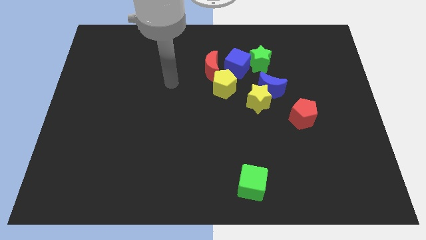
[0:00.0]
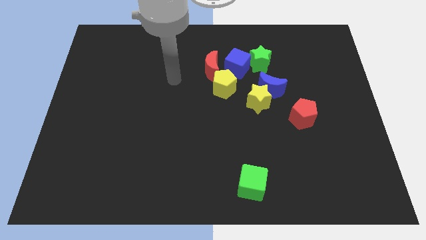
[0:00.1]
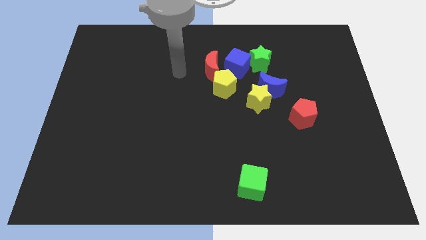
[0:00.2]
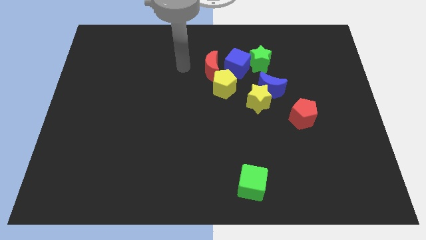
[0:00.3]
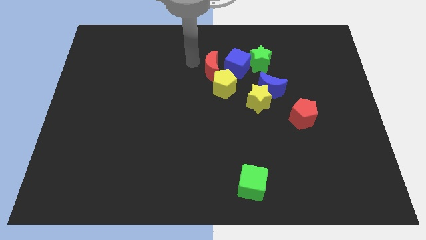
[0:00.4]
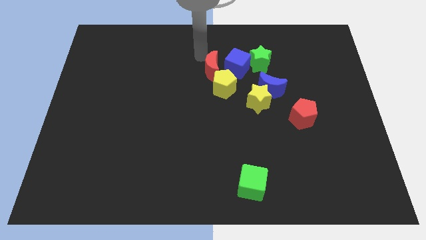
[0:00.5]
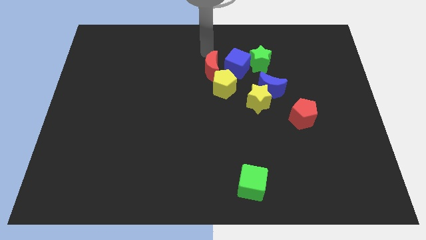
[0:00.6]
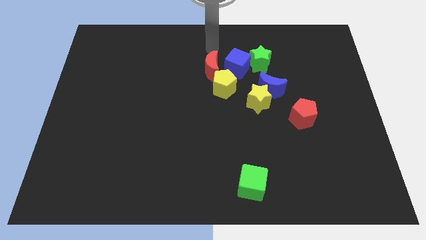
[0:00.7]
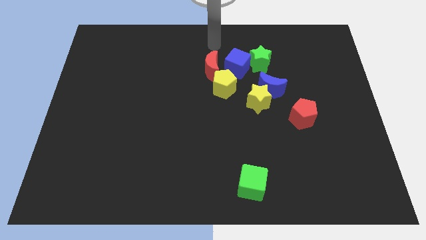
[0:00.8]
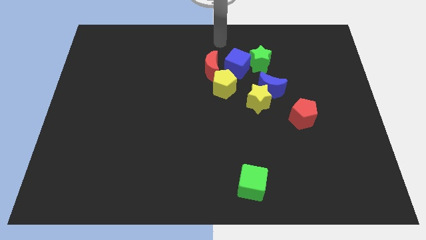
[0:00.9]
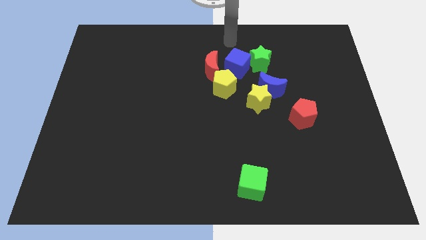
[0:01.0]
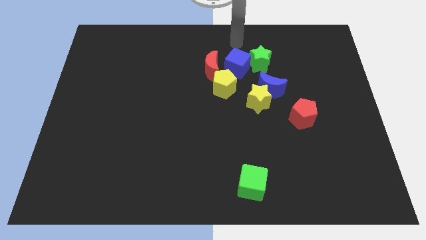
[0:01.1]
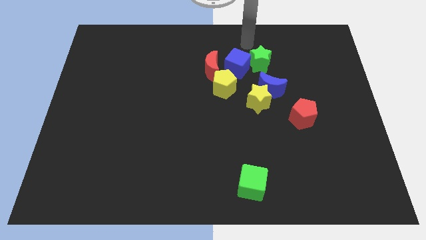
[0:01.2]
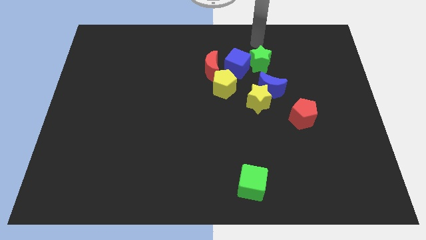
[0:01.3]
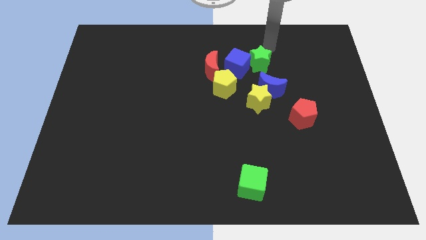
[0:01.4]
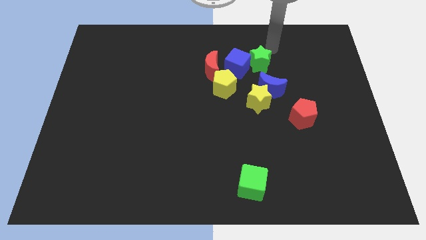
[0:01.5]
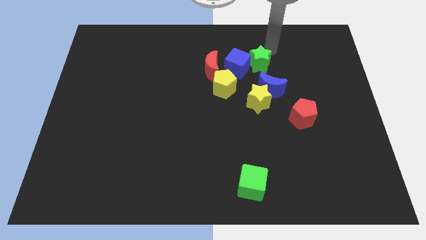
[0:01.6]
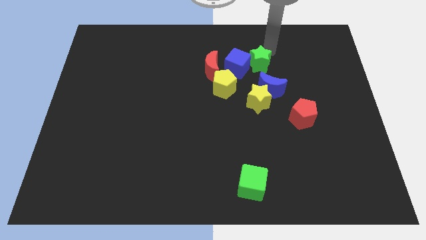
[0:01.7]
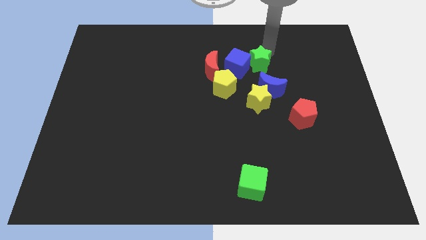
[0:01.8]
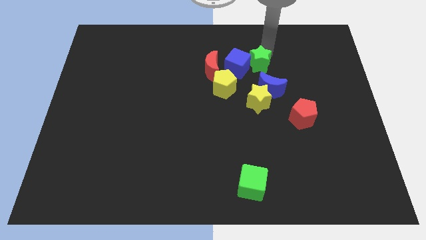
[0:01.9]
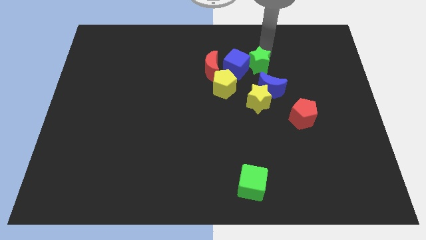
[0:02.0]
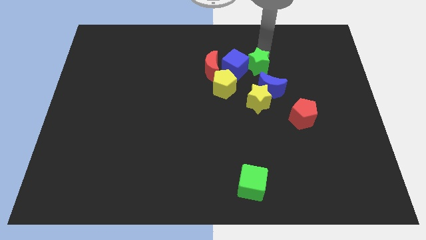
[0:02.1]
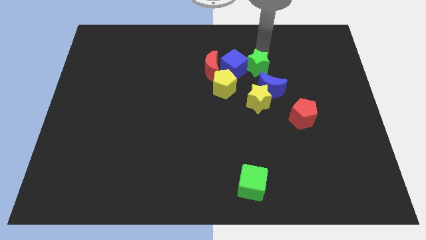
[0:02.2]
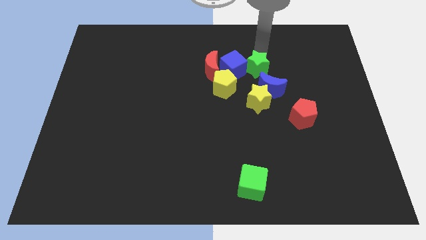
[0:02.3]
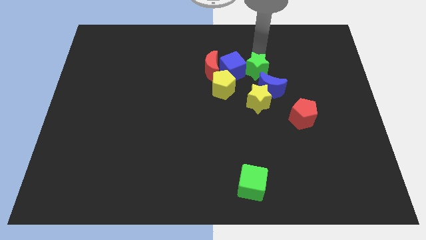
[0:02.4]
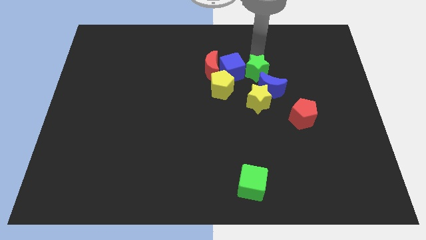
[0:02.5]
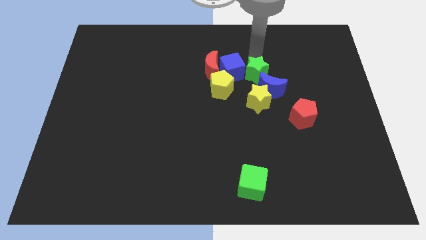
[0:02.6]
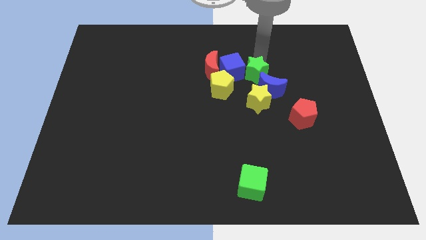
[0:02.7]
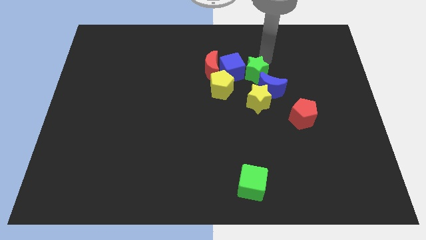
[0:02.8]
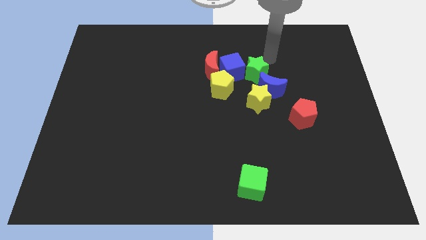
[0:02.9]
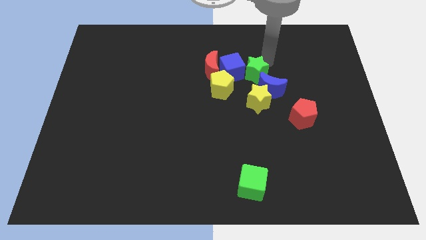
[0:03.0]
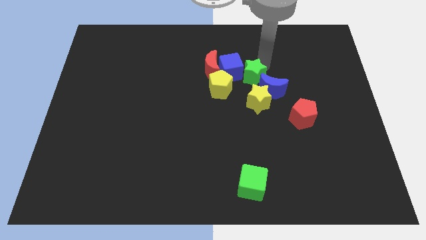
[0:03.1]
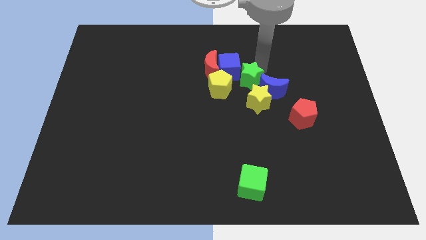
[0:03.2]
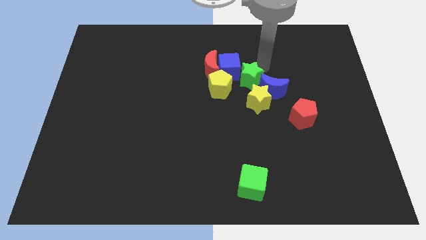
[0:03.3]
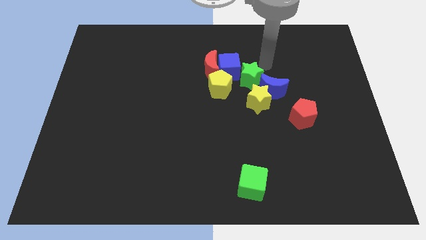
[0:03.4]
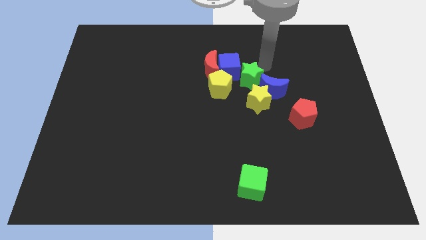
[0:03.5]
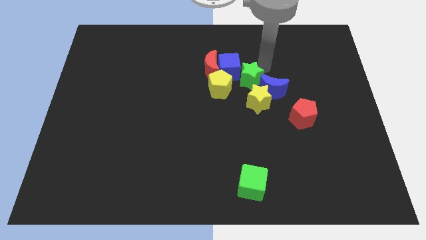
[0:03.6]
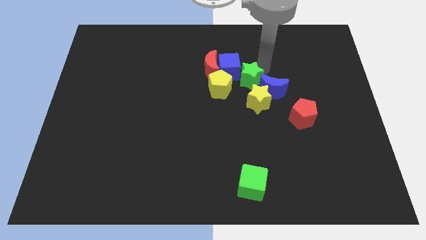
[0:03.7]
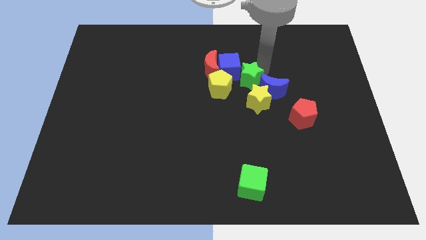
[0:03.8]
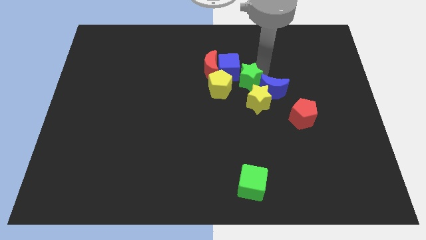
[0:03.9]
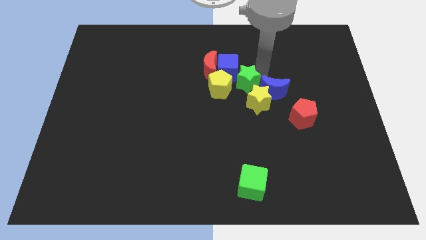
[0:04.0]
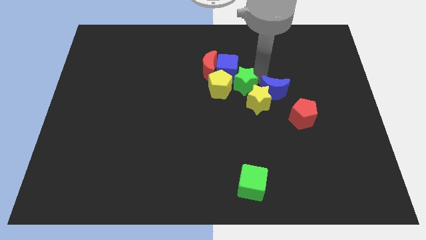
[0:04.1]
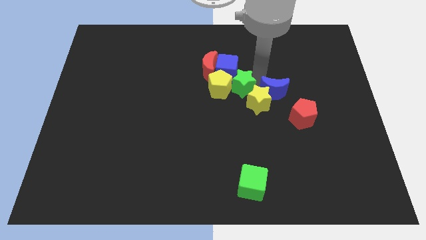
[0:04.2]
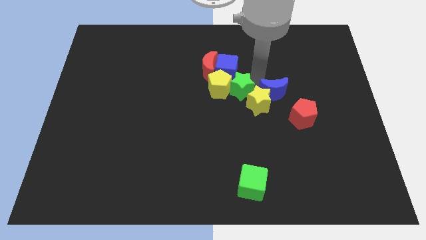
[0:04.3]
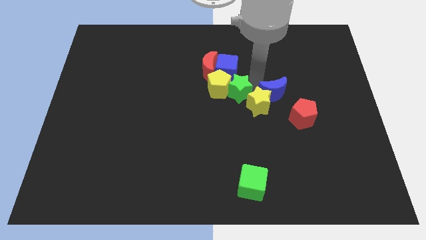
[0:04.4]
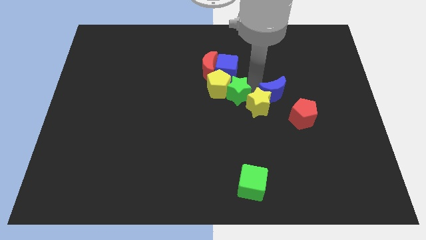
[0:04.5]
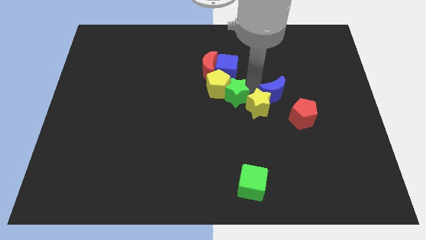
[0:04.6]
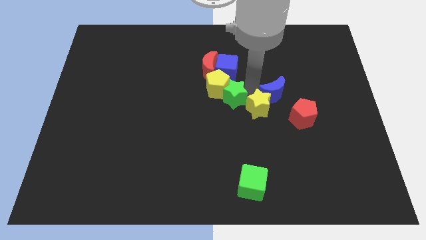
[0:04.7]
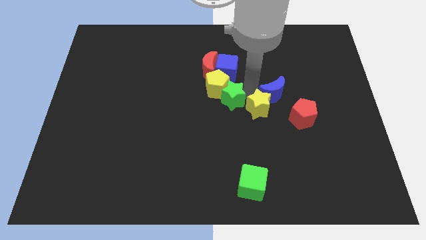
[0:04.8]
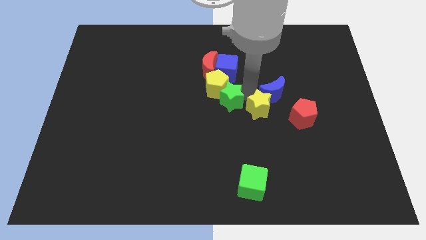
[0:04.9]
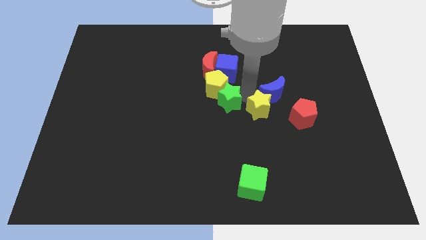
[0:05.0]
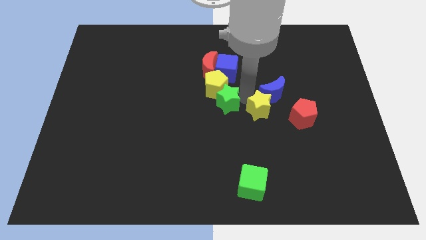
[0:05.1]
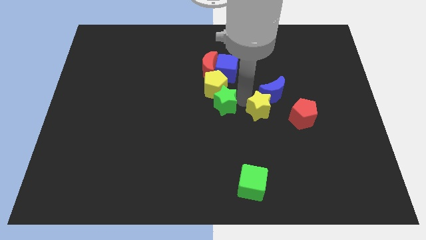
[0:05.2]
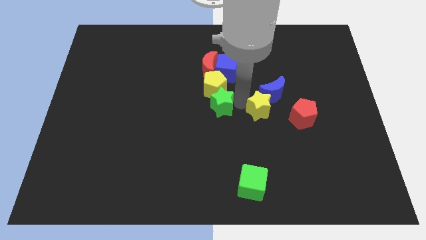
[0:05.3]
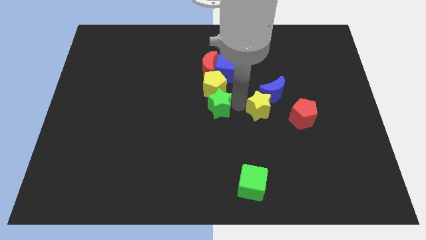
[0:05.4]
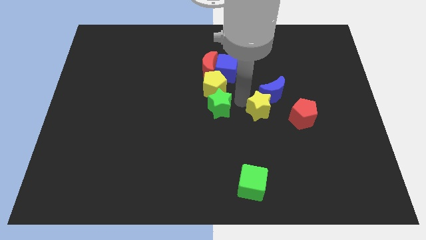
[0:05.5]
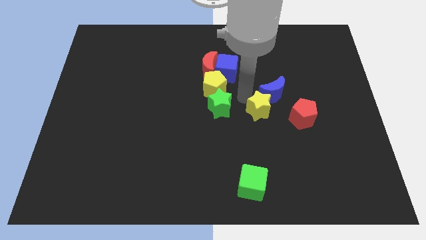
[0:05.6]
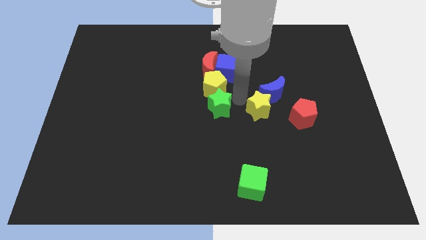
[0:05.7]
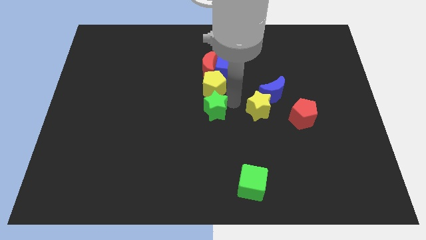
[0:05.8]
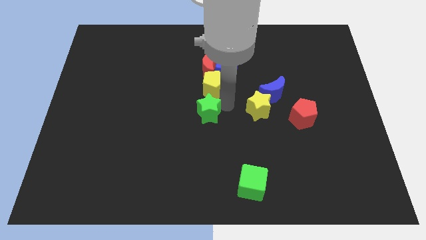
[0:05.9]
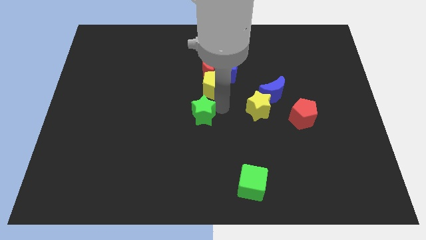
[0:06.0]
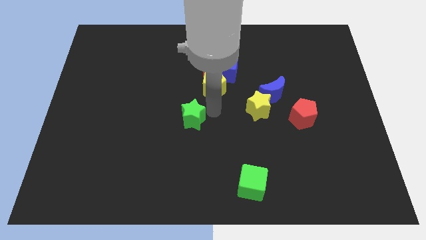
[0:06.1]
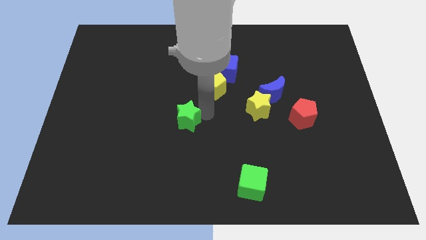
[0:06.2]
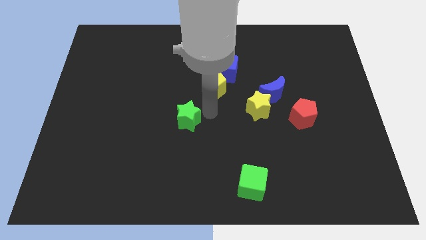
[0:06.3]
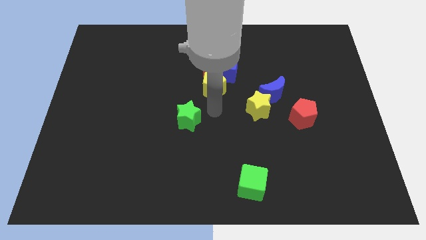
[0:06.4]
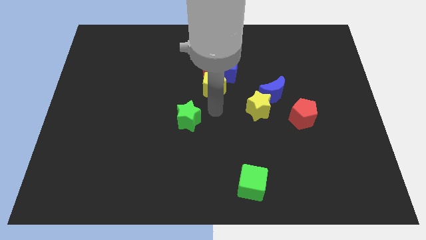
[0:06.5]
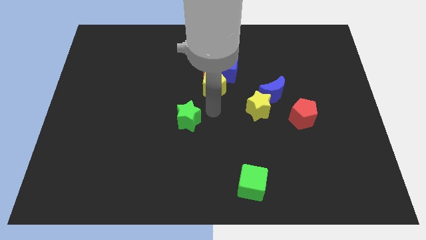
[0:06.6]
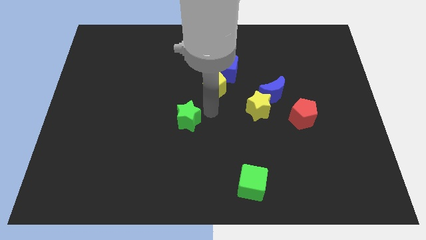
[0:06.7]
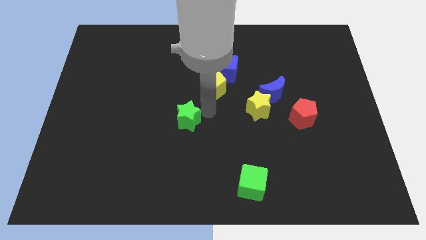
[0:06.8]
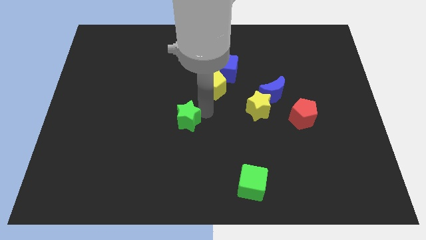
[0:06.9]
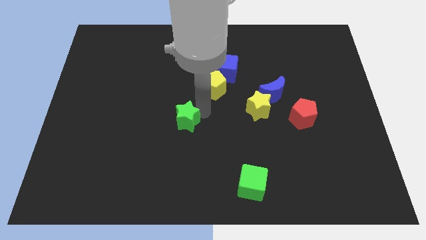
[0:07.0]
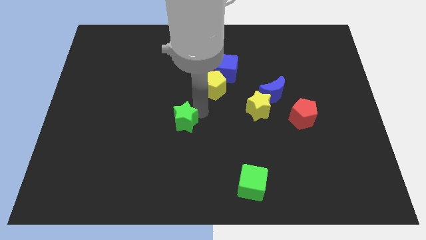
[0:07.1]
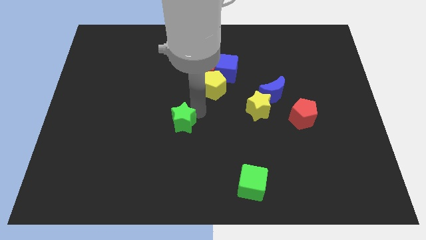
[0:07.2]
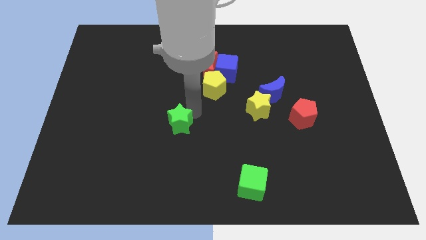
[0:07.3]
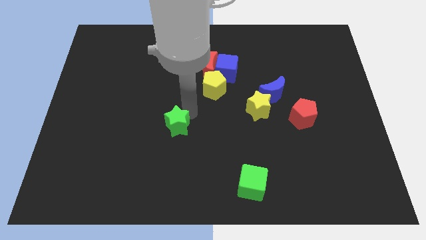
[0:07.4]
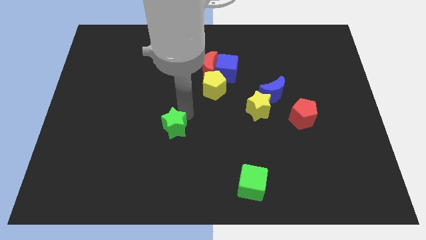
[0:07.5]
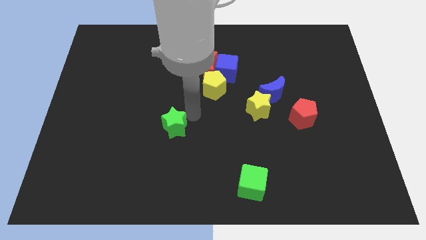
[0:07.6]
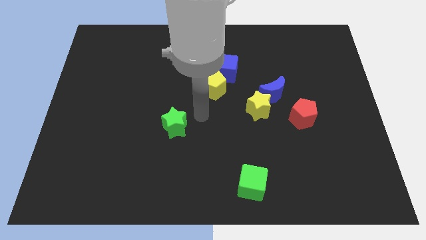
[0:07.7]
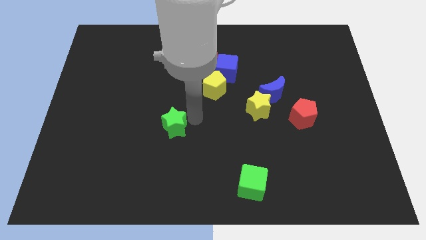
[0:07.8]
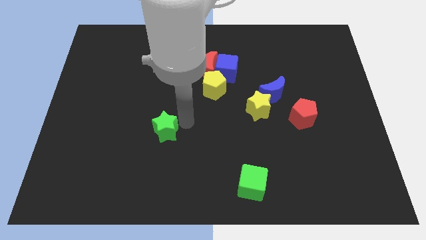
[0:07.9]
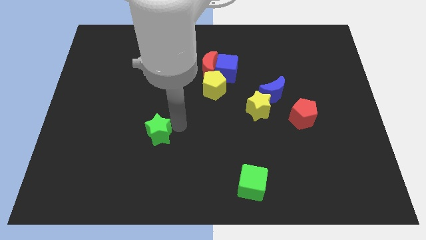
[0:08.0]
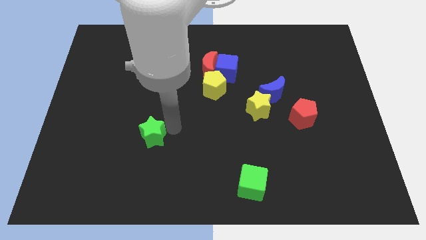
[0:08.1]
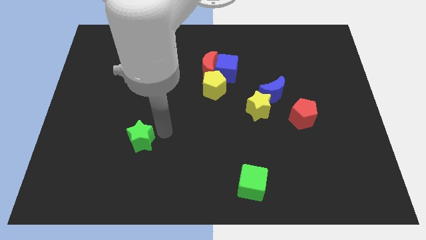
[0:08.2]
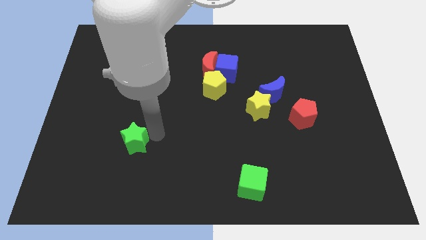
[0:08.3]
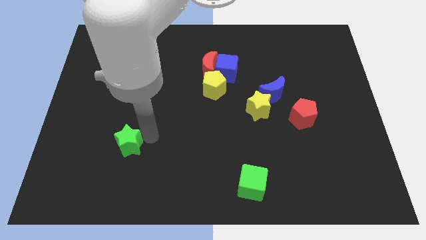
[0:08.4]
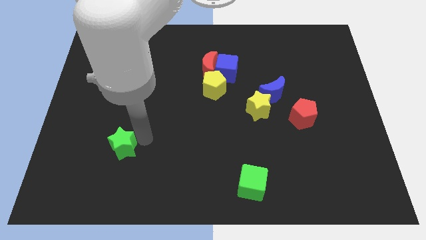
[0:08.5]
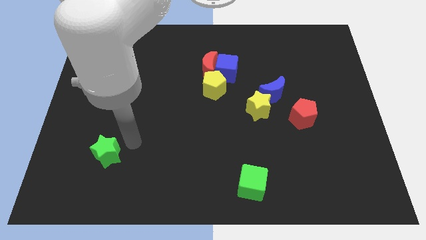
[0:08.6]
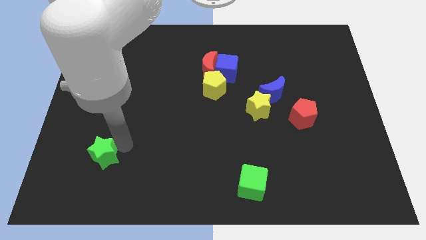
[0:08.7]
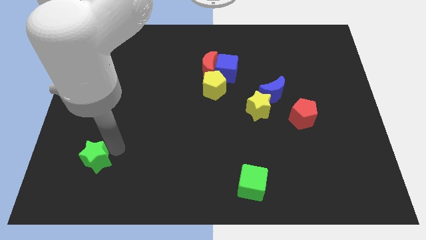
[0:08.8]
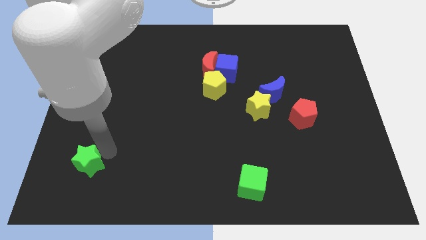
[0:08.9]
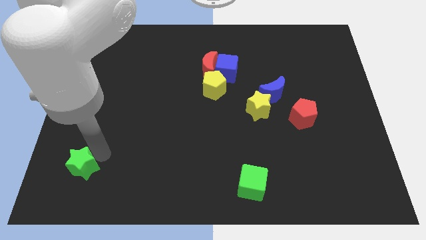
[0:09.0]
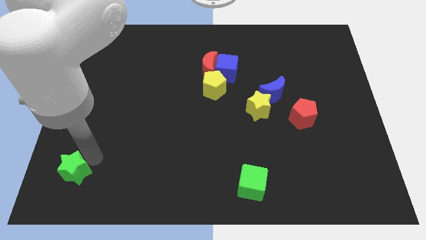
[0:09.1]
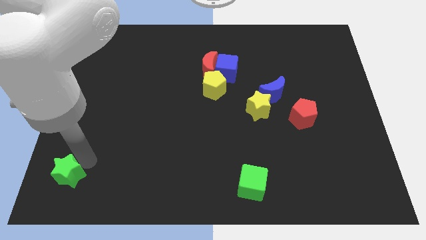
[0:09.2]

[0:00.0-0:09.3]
push the green star to the lower left corner
